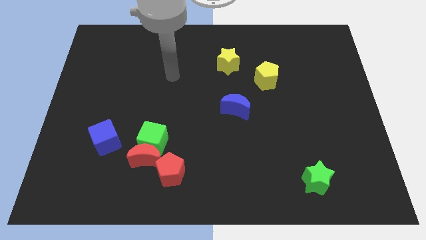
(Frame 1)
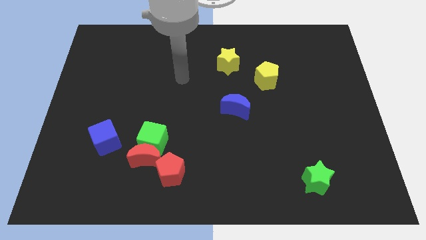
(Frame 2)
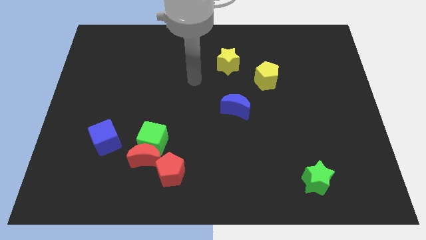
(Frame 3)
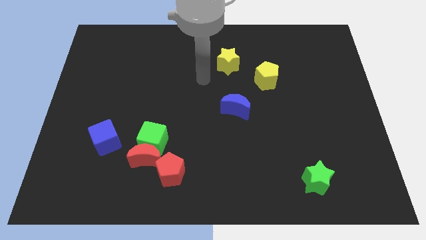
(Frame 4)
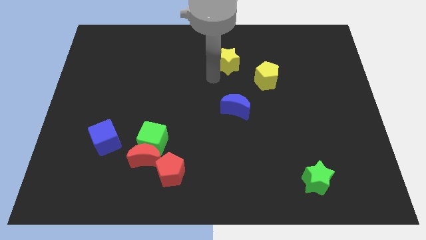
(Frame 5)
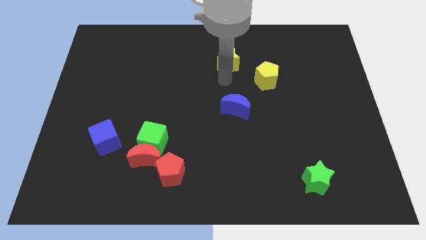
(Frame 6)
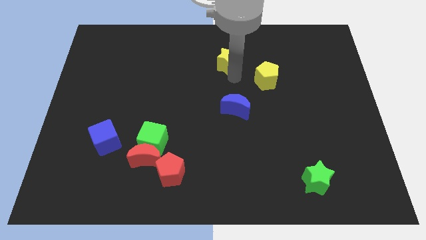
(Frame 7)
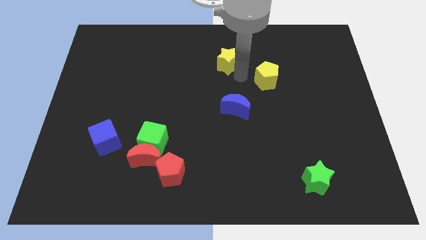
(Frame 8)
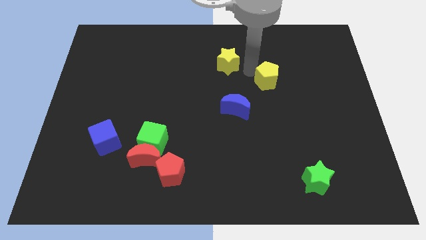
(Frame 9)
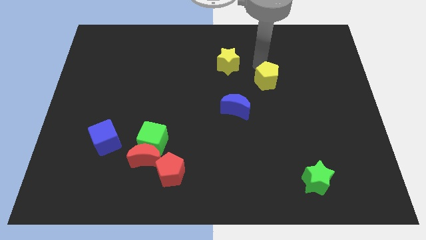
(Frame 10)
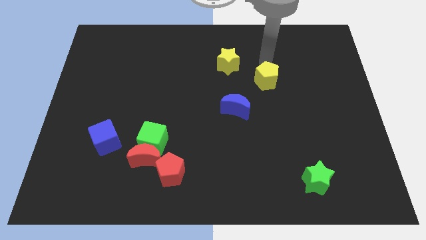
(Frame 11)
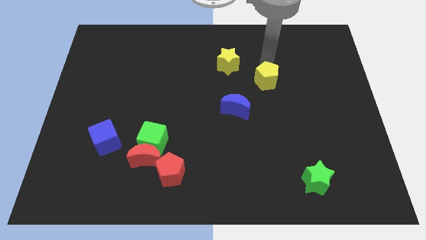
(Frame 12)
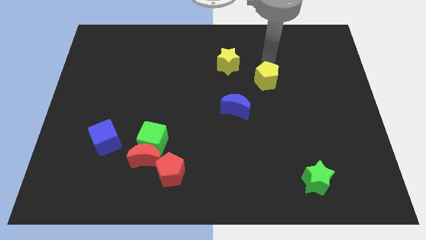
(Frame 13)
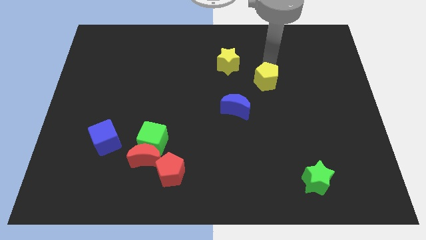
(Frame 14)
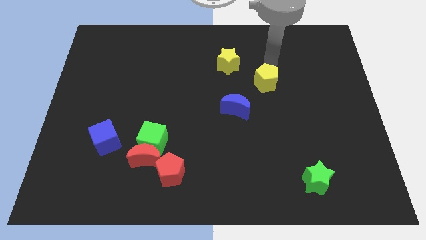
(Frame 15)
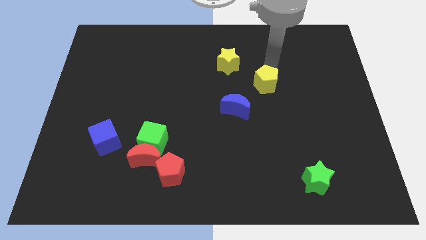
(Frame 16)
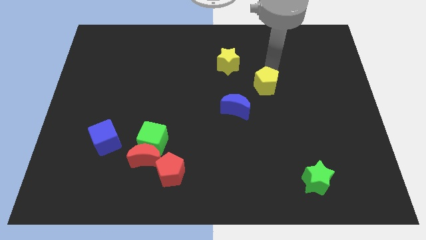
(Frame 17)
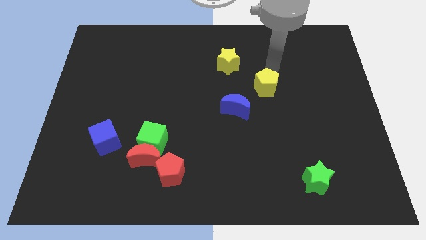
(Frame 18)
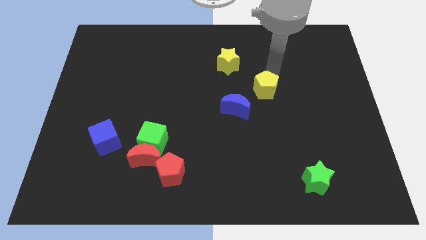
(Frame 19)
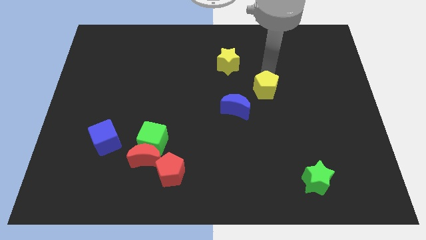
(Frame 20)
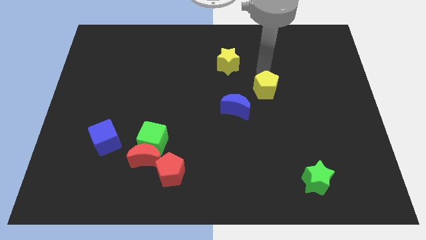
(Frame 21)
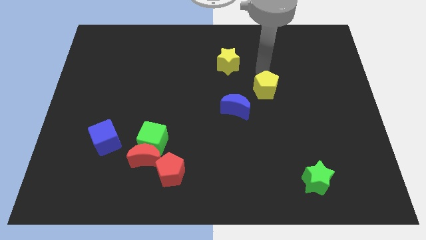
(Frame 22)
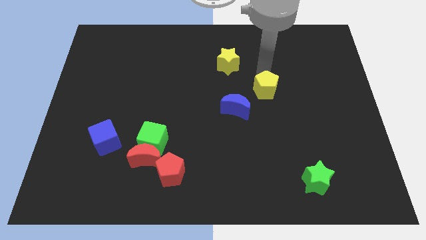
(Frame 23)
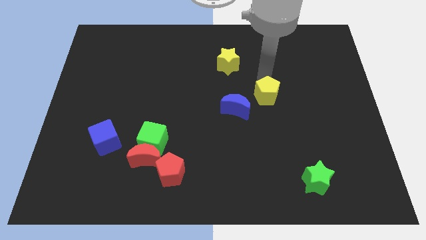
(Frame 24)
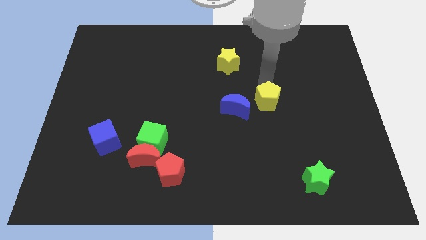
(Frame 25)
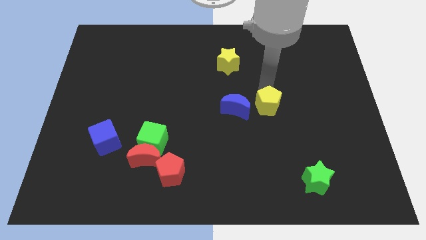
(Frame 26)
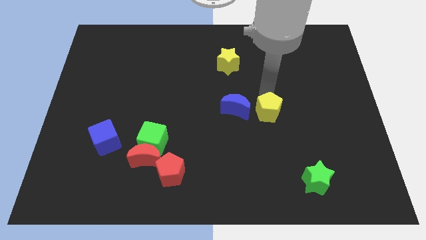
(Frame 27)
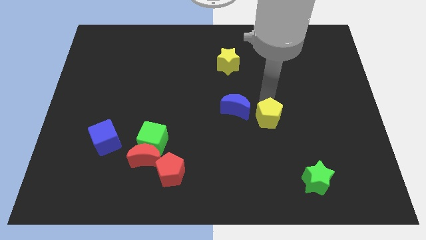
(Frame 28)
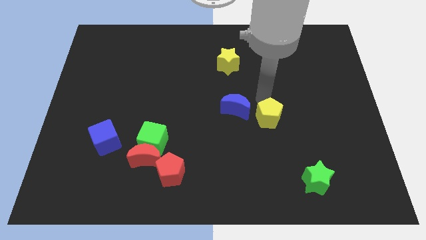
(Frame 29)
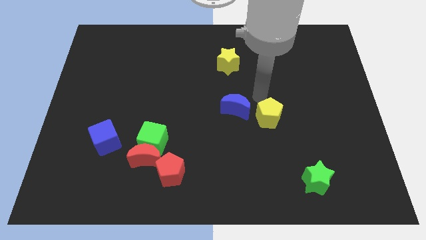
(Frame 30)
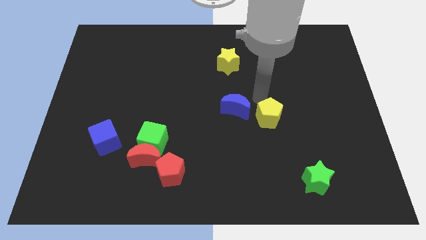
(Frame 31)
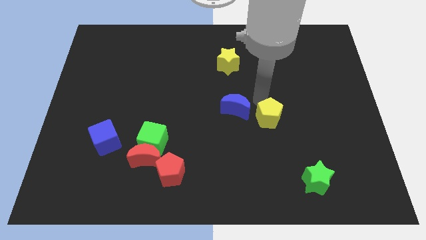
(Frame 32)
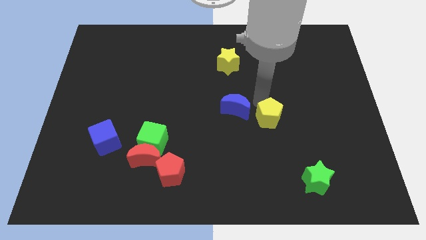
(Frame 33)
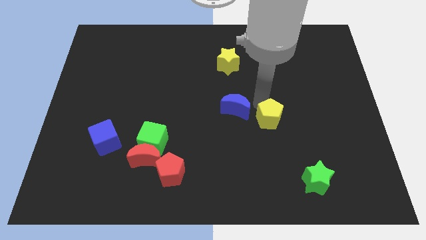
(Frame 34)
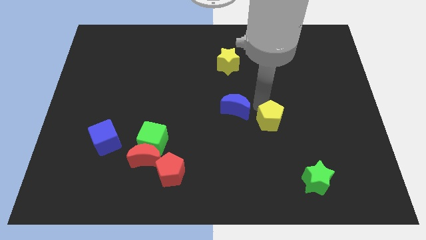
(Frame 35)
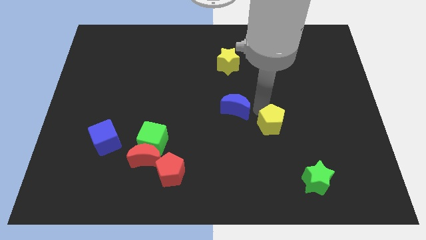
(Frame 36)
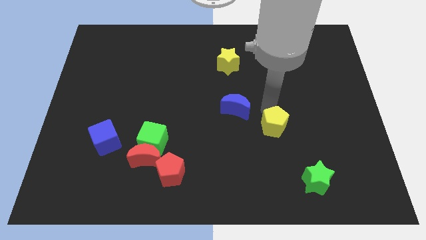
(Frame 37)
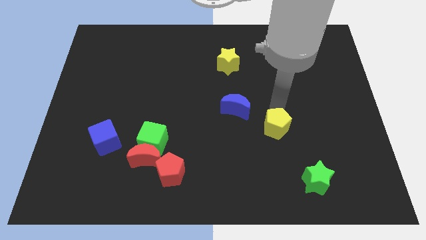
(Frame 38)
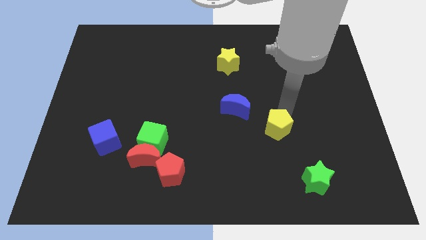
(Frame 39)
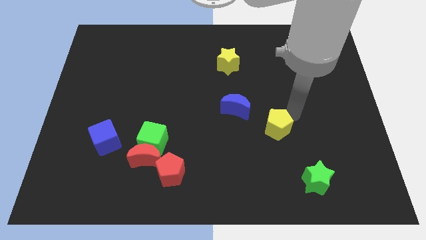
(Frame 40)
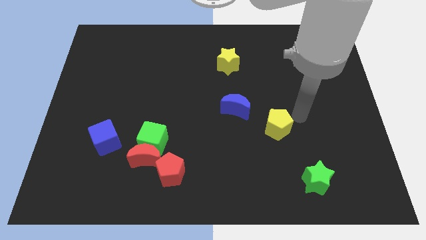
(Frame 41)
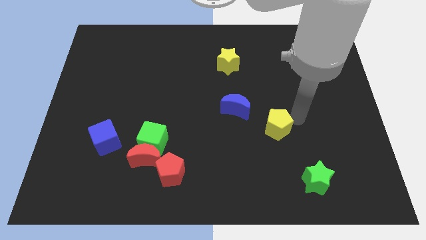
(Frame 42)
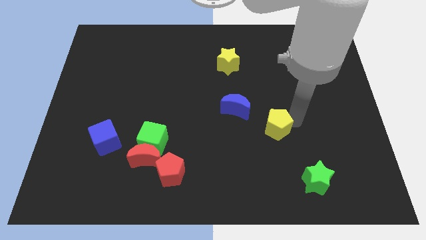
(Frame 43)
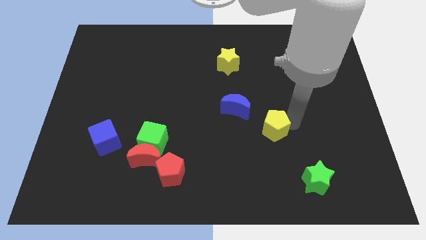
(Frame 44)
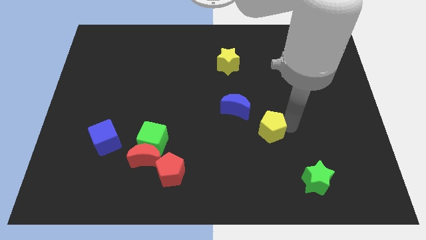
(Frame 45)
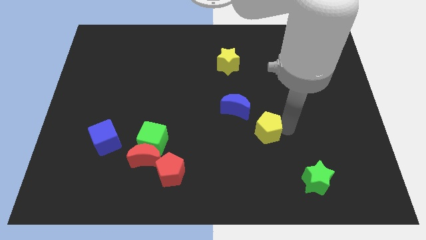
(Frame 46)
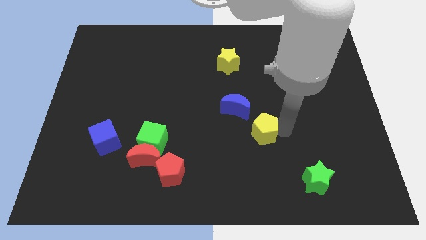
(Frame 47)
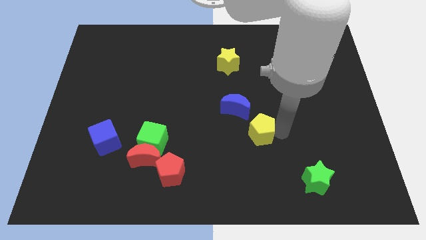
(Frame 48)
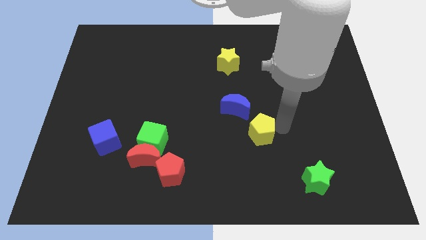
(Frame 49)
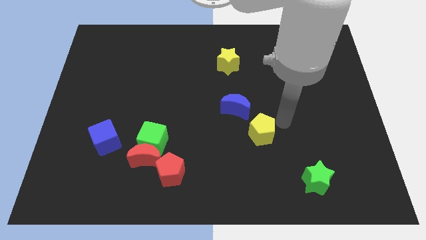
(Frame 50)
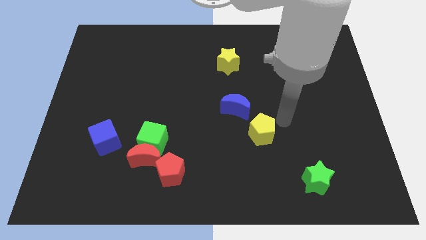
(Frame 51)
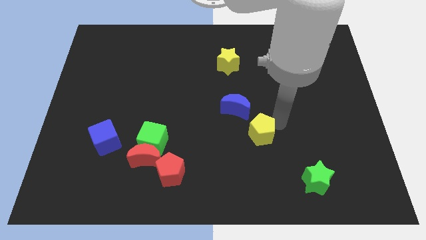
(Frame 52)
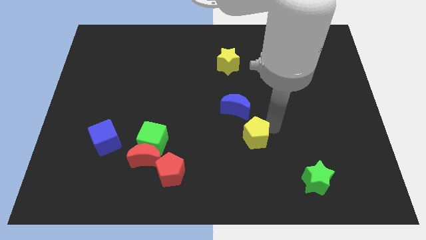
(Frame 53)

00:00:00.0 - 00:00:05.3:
push the yellow pentagon to the bottom side of the blue moon

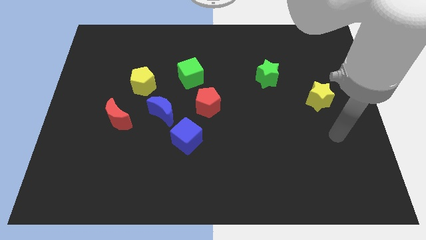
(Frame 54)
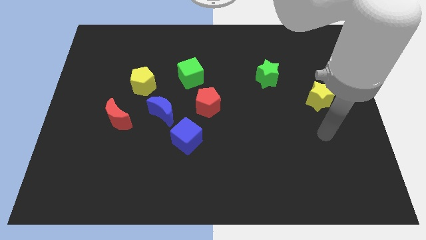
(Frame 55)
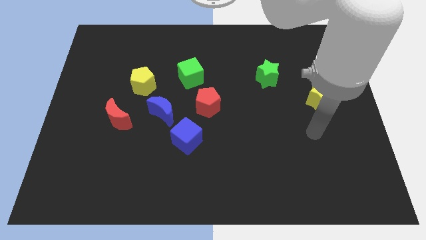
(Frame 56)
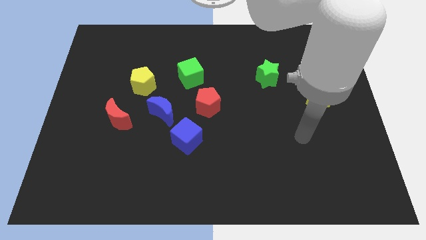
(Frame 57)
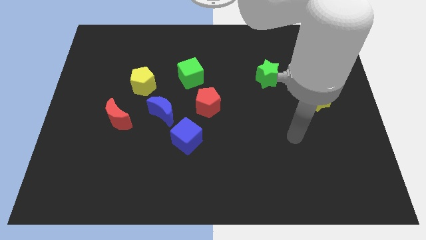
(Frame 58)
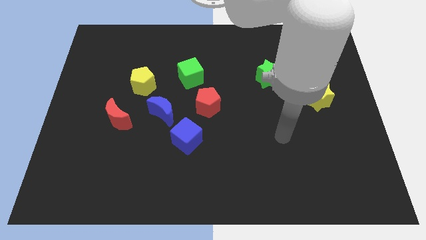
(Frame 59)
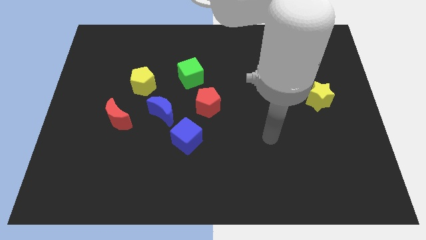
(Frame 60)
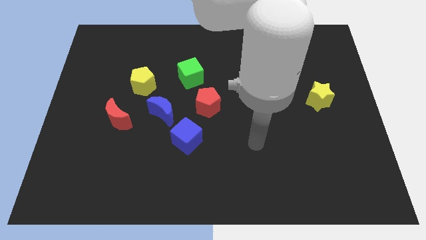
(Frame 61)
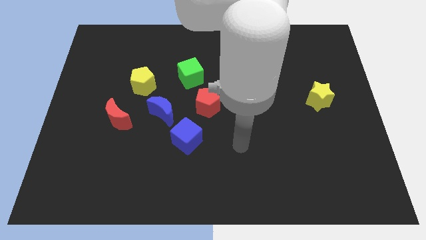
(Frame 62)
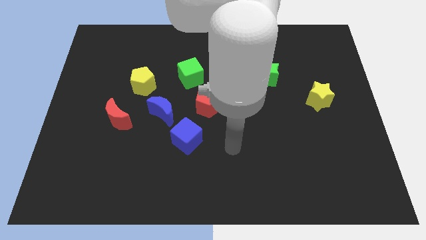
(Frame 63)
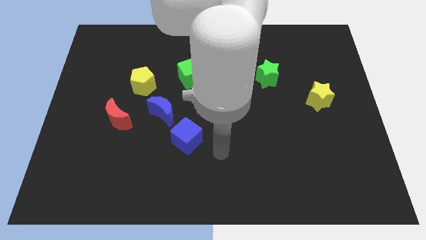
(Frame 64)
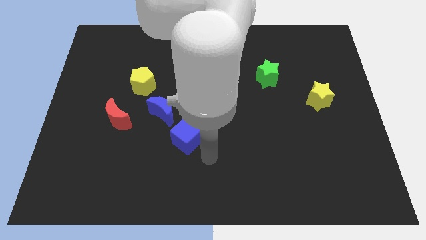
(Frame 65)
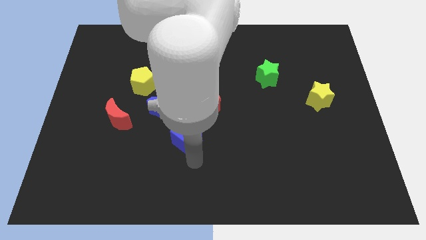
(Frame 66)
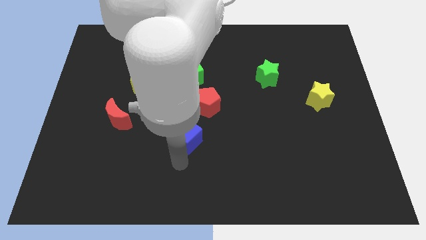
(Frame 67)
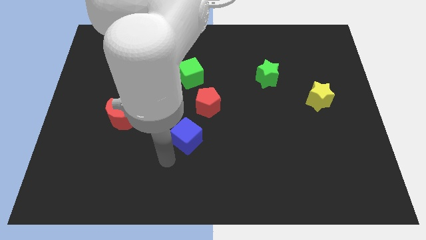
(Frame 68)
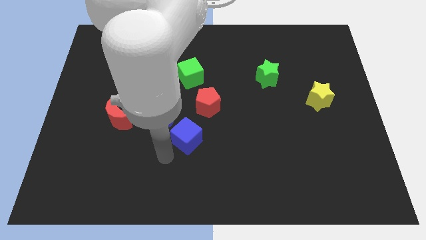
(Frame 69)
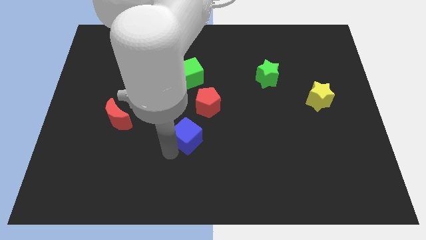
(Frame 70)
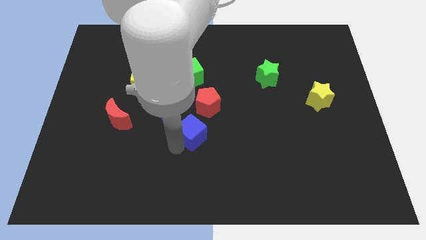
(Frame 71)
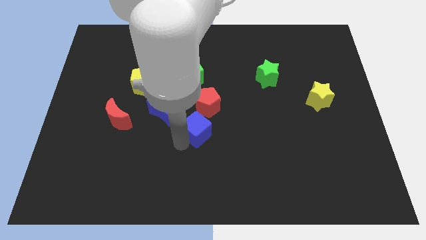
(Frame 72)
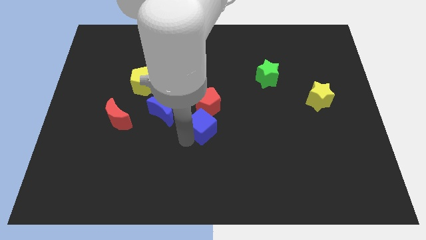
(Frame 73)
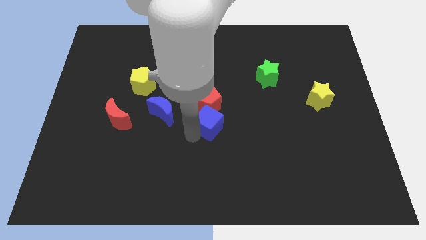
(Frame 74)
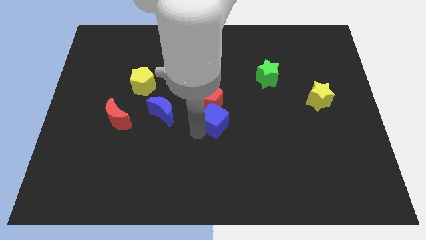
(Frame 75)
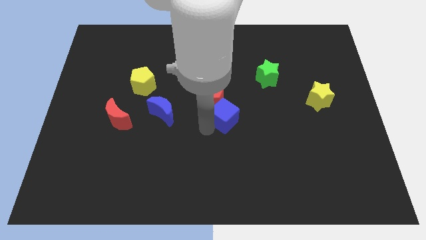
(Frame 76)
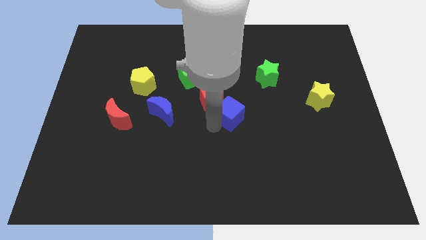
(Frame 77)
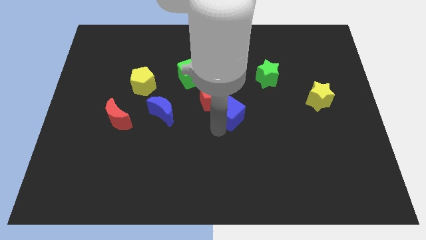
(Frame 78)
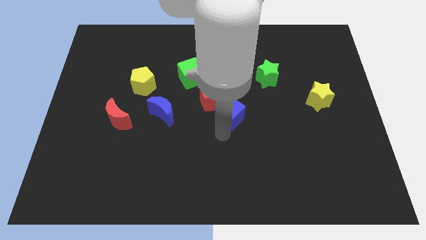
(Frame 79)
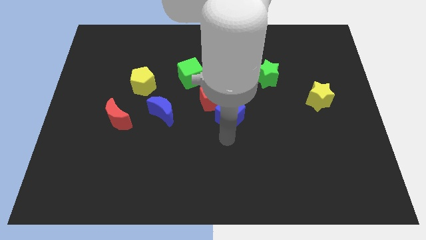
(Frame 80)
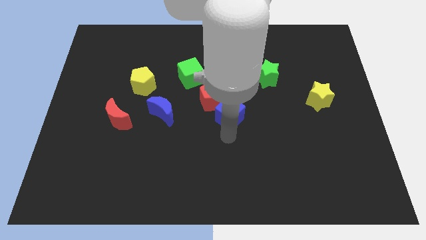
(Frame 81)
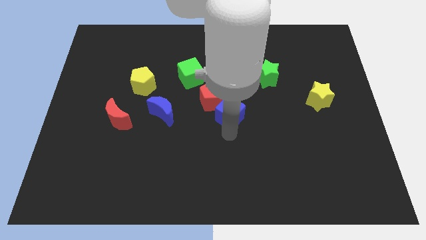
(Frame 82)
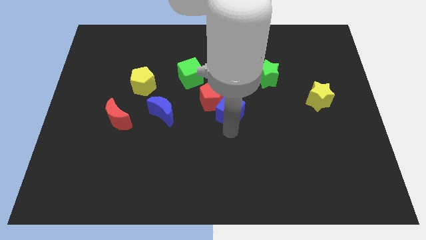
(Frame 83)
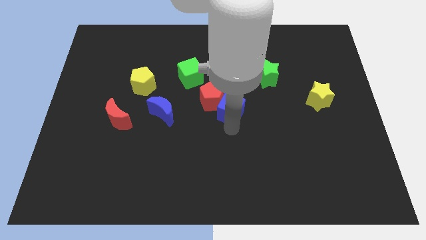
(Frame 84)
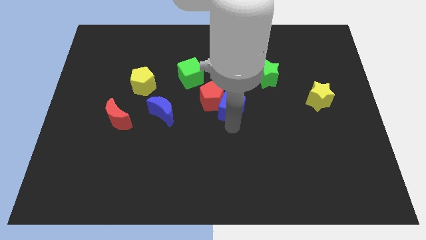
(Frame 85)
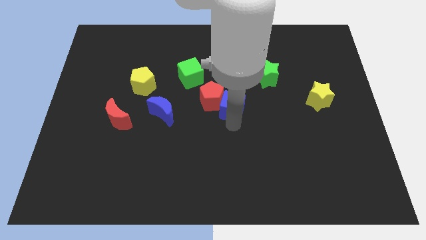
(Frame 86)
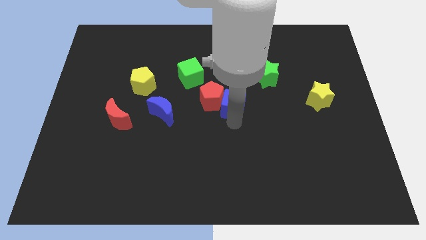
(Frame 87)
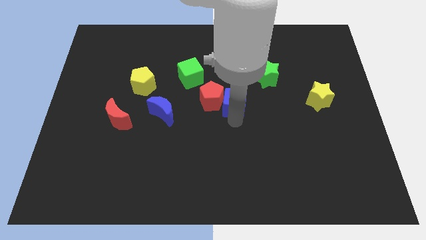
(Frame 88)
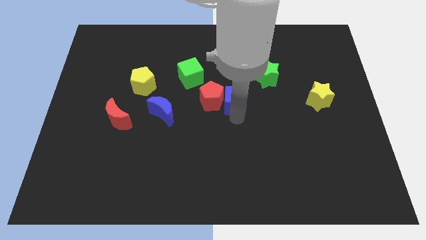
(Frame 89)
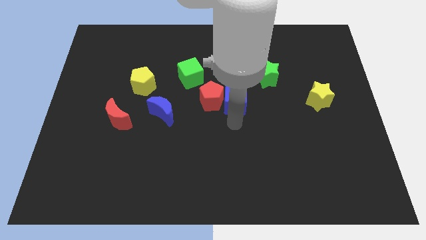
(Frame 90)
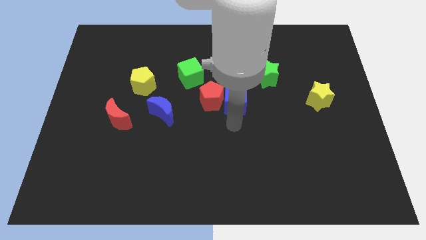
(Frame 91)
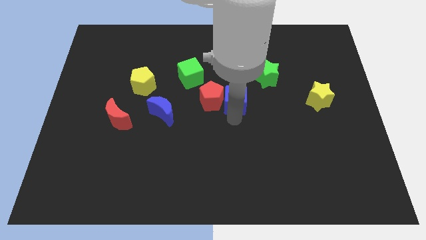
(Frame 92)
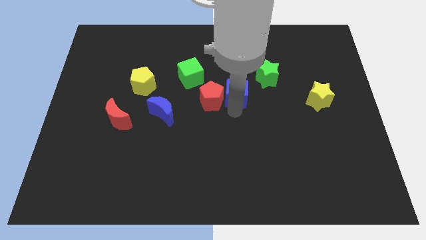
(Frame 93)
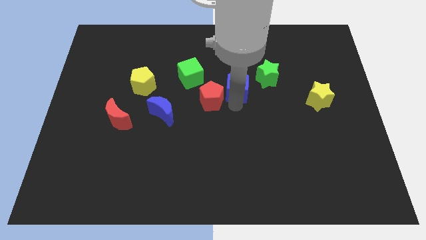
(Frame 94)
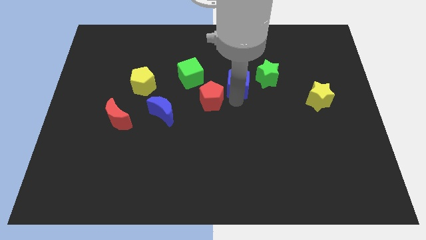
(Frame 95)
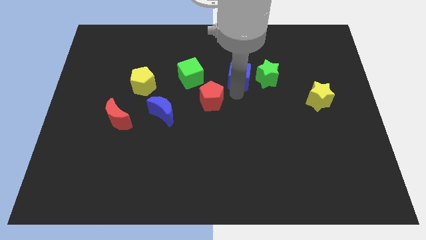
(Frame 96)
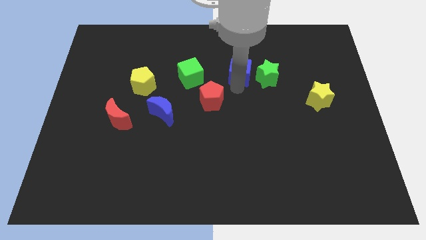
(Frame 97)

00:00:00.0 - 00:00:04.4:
push the blue cube to the top left side of the green star
